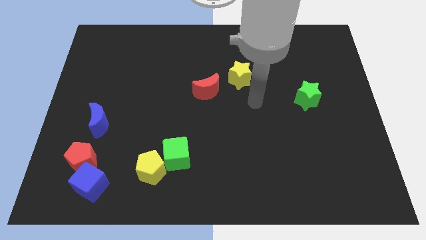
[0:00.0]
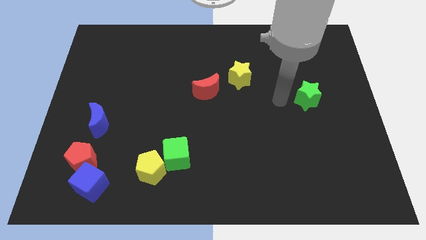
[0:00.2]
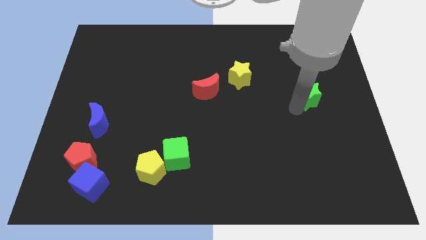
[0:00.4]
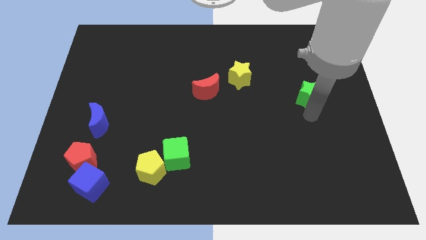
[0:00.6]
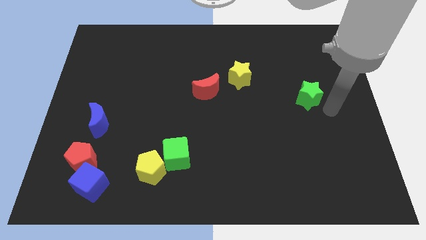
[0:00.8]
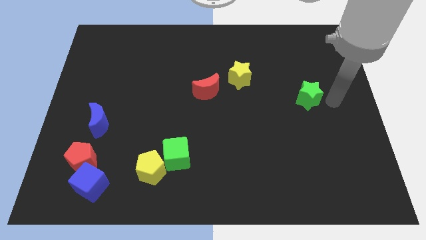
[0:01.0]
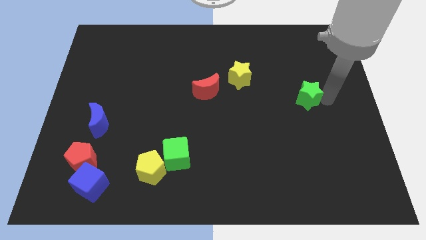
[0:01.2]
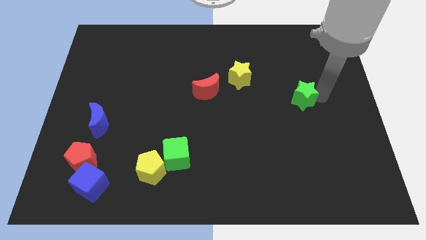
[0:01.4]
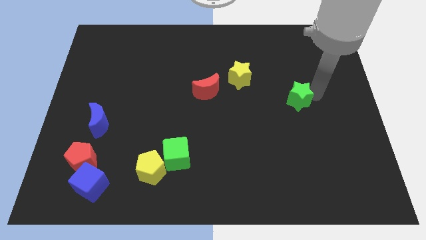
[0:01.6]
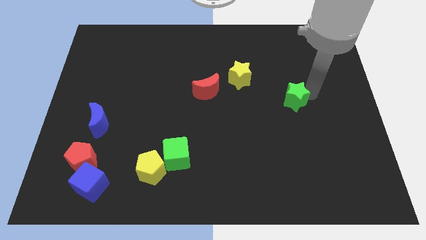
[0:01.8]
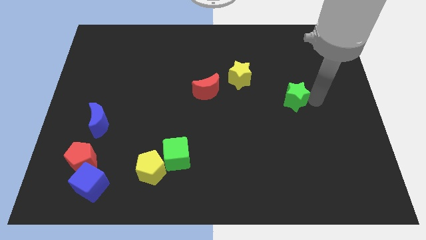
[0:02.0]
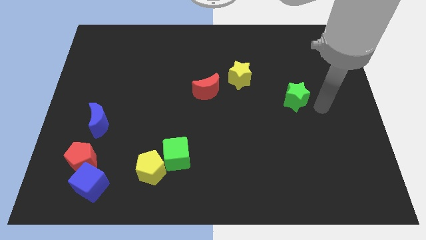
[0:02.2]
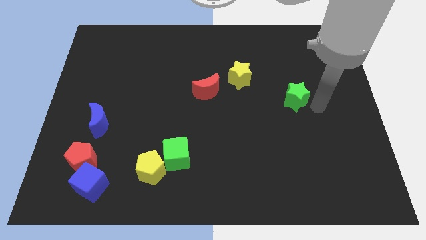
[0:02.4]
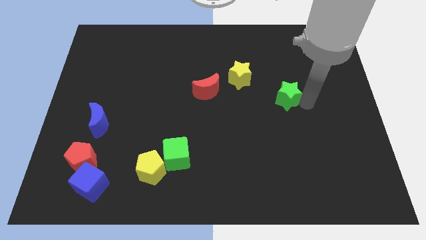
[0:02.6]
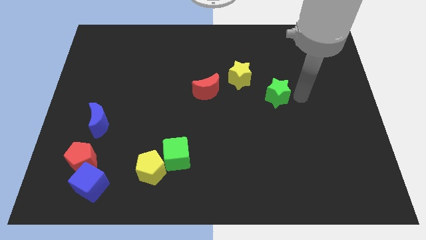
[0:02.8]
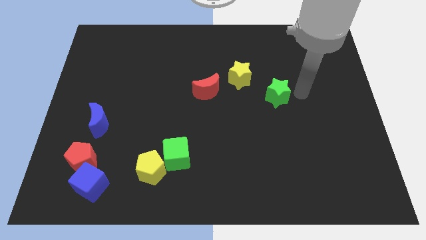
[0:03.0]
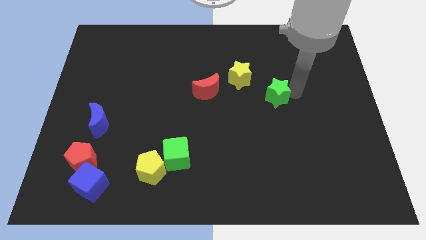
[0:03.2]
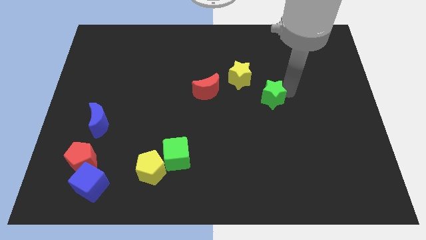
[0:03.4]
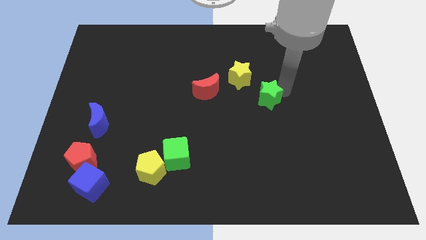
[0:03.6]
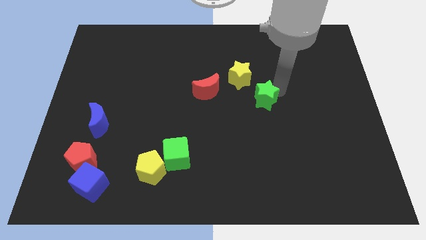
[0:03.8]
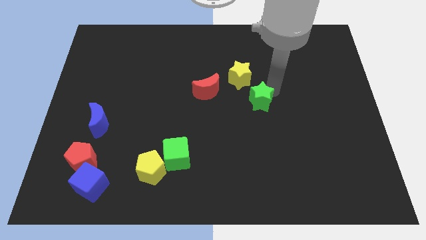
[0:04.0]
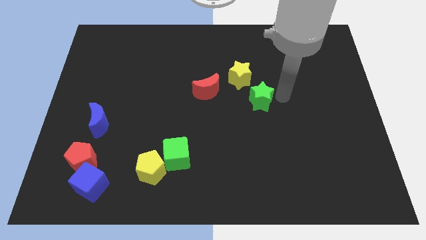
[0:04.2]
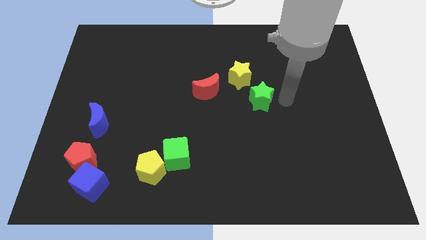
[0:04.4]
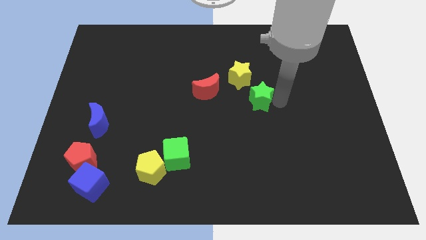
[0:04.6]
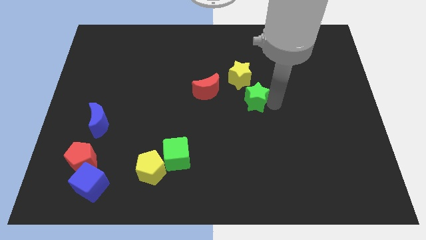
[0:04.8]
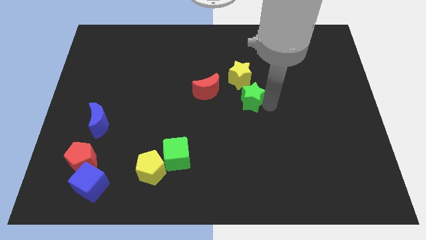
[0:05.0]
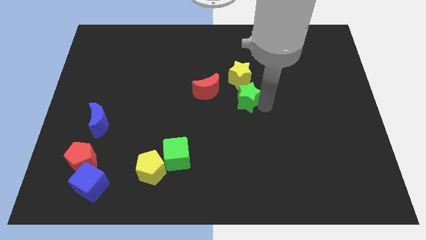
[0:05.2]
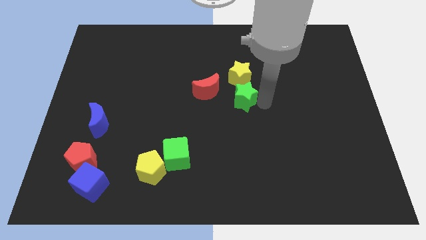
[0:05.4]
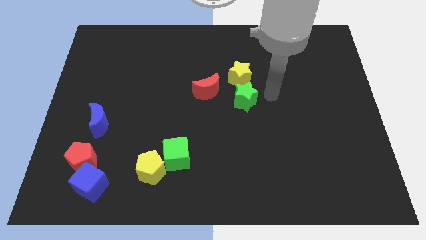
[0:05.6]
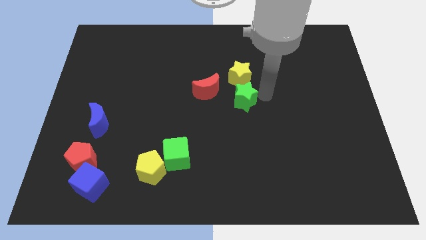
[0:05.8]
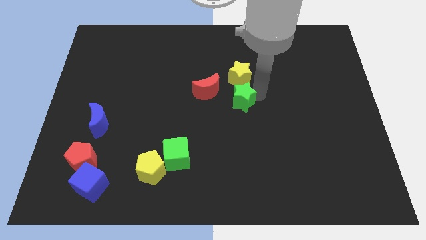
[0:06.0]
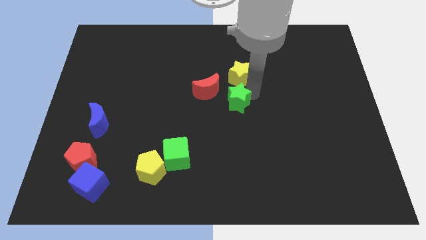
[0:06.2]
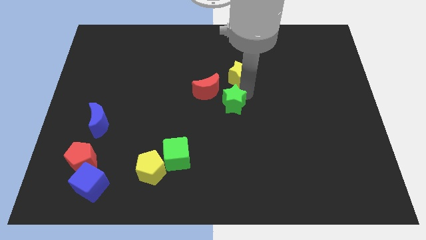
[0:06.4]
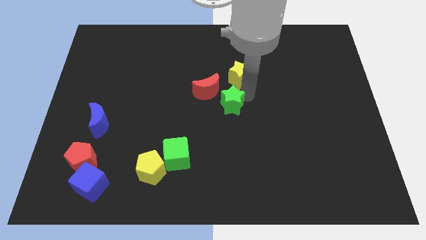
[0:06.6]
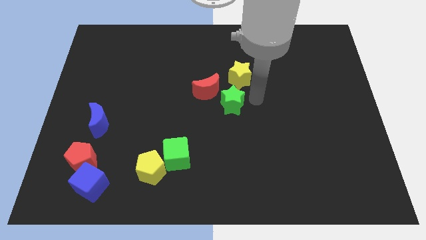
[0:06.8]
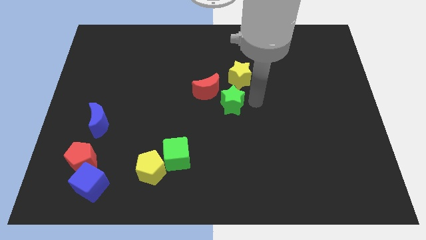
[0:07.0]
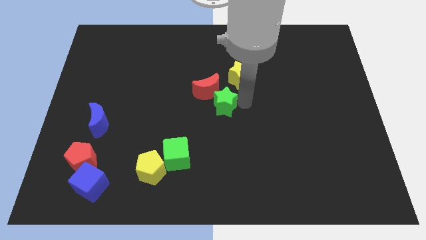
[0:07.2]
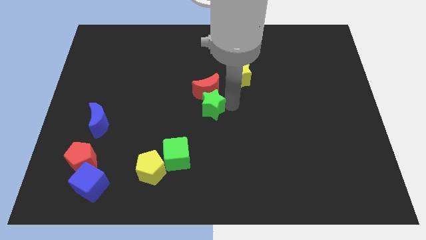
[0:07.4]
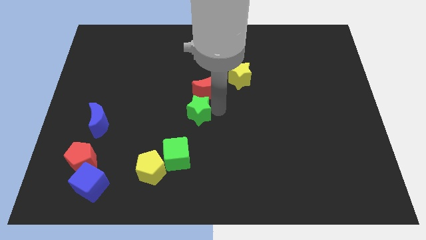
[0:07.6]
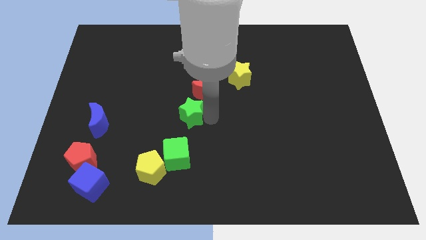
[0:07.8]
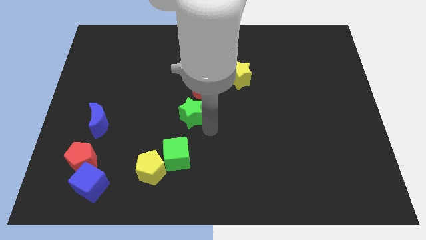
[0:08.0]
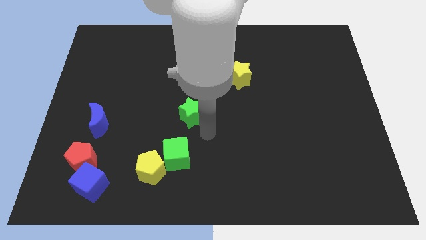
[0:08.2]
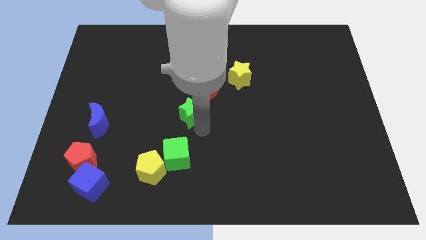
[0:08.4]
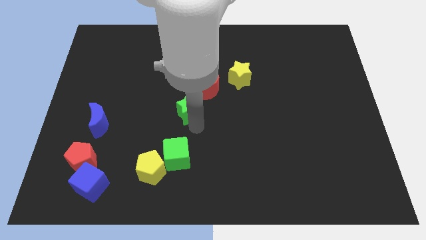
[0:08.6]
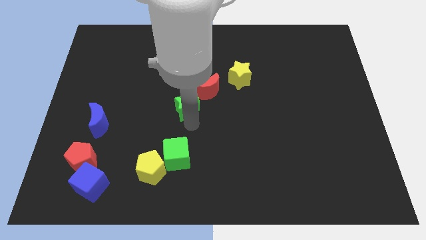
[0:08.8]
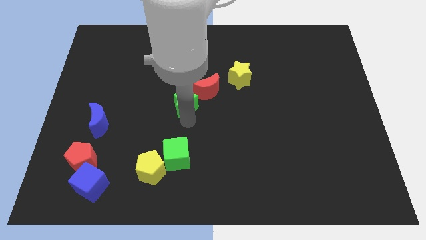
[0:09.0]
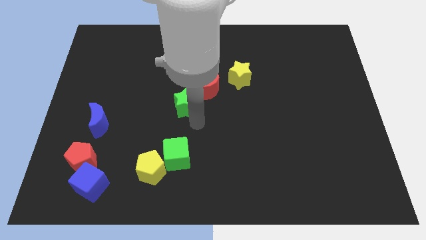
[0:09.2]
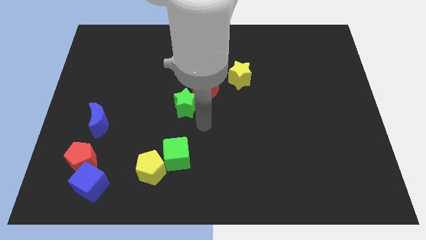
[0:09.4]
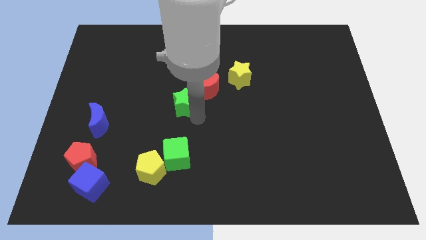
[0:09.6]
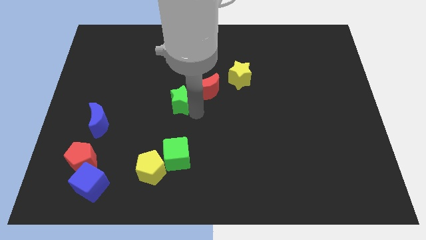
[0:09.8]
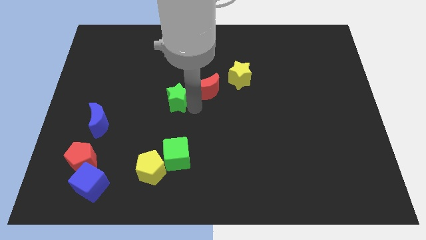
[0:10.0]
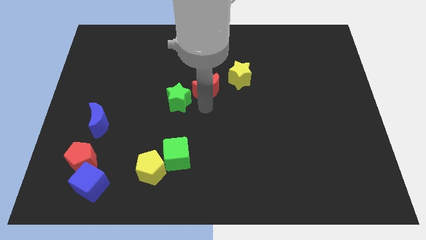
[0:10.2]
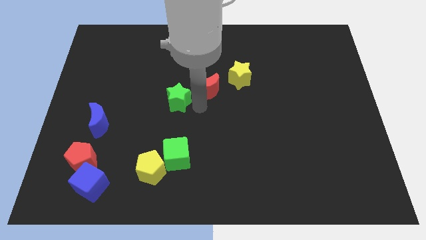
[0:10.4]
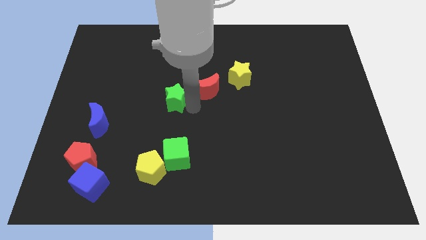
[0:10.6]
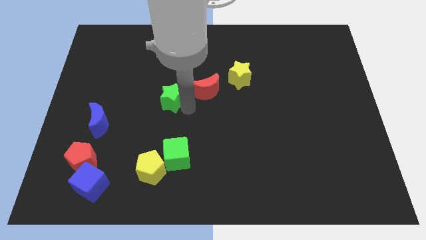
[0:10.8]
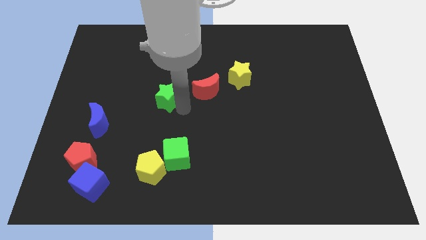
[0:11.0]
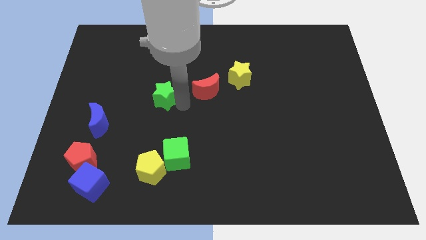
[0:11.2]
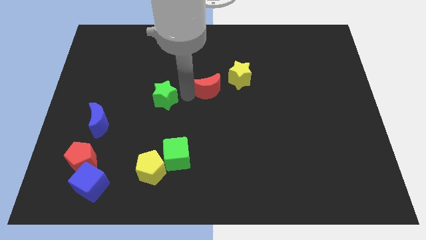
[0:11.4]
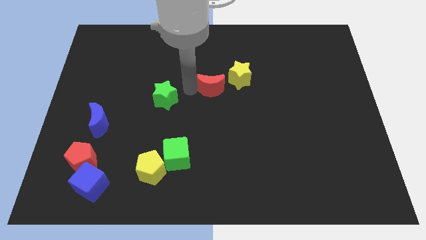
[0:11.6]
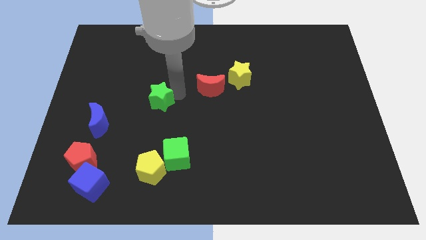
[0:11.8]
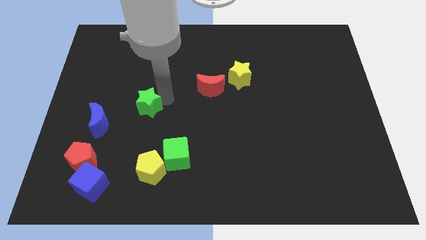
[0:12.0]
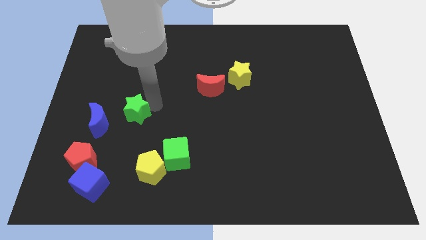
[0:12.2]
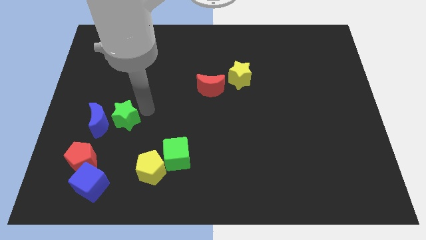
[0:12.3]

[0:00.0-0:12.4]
move the green star to the blue moon
